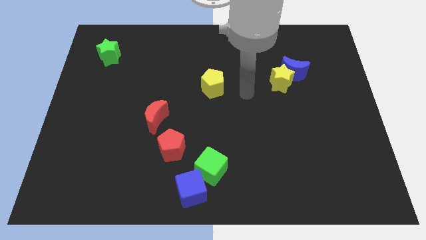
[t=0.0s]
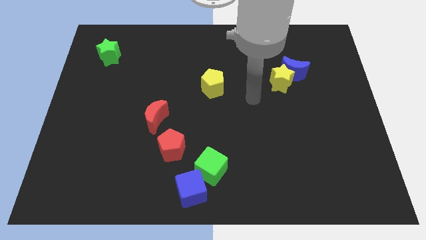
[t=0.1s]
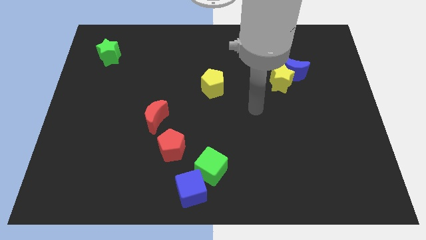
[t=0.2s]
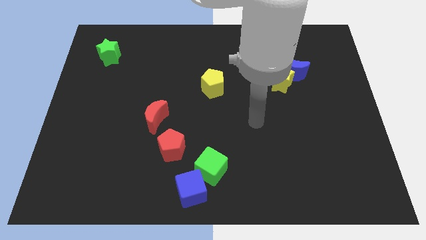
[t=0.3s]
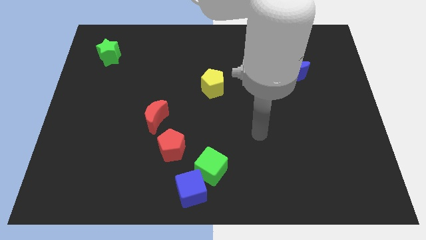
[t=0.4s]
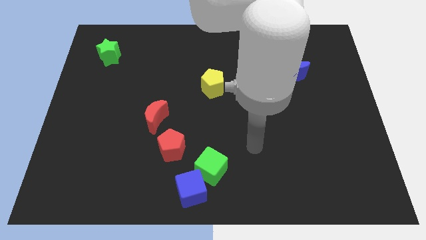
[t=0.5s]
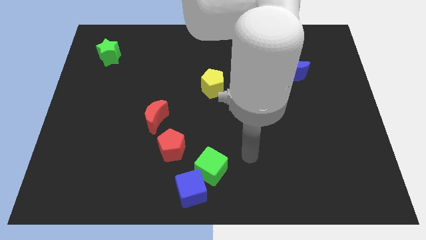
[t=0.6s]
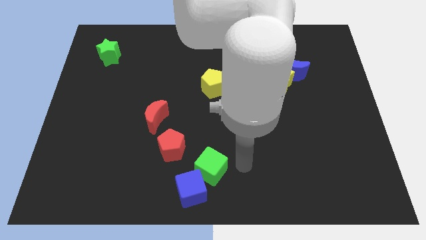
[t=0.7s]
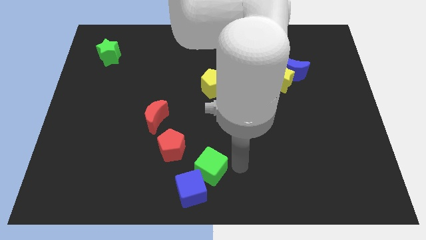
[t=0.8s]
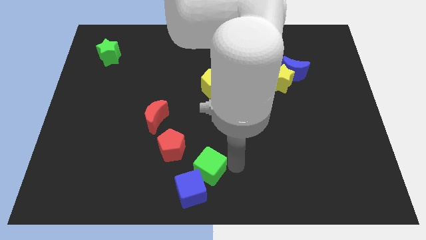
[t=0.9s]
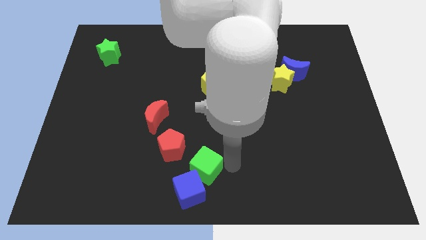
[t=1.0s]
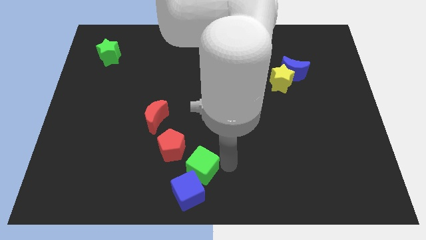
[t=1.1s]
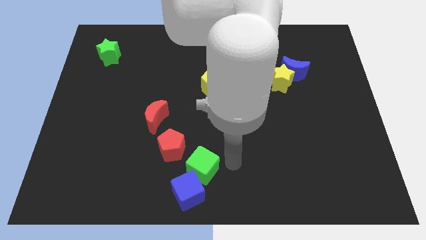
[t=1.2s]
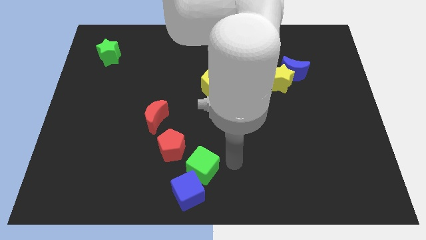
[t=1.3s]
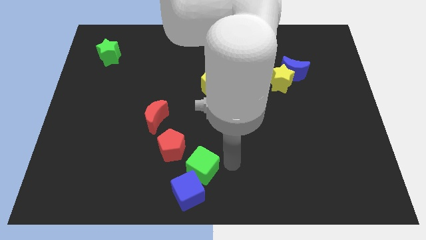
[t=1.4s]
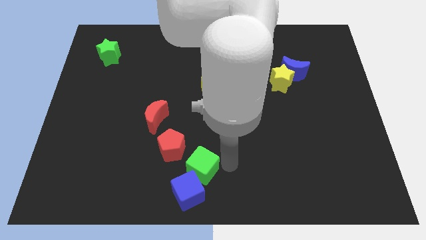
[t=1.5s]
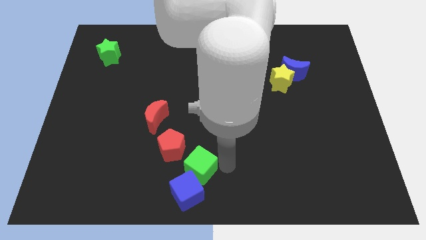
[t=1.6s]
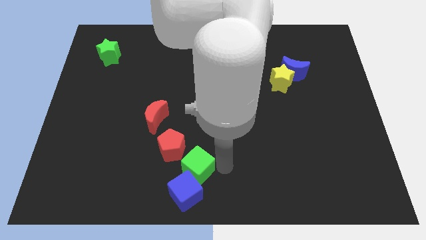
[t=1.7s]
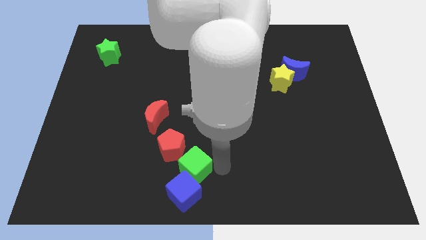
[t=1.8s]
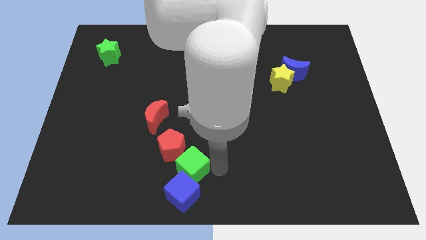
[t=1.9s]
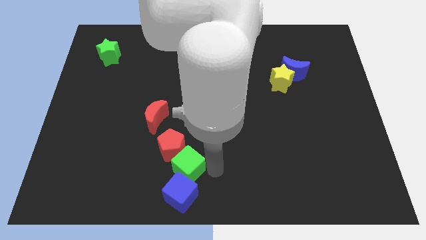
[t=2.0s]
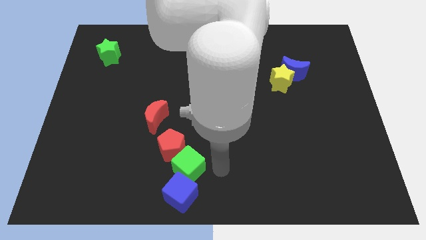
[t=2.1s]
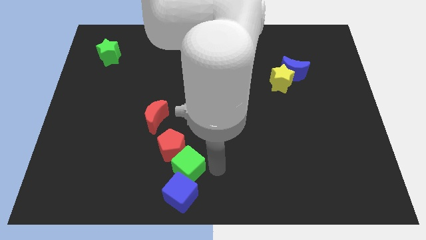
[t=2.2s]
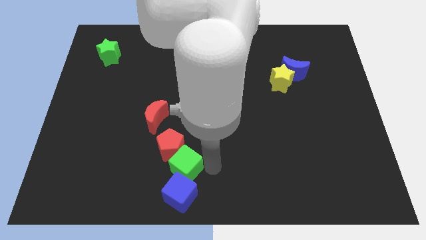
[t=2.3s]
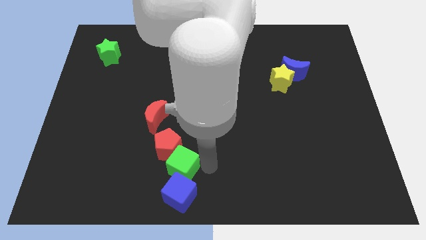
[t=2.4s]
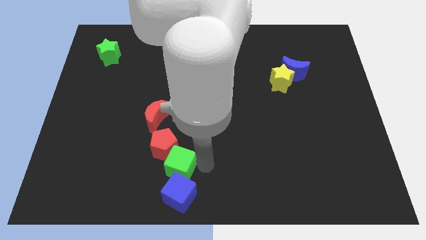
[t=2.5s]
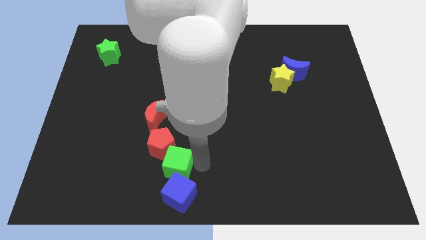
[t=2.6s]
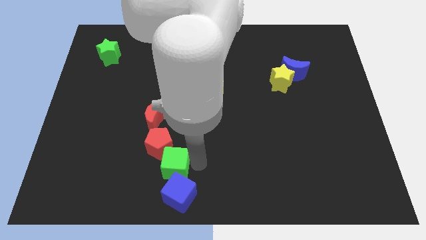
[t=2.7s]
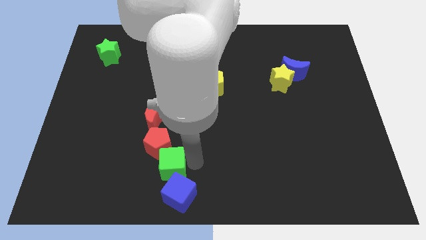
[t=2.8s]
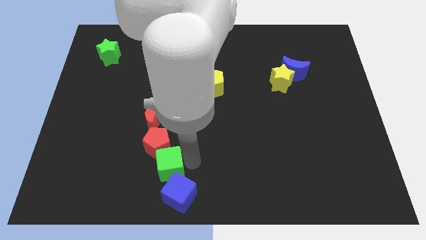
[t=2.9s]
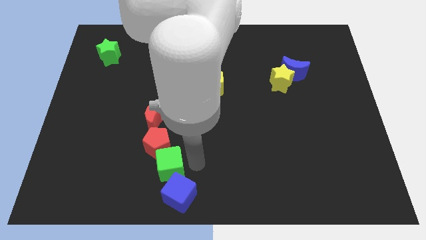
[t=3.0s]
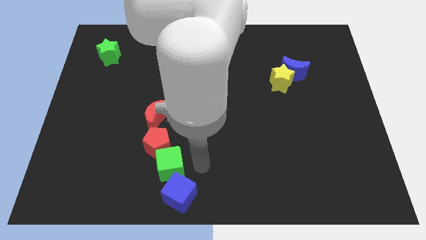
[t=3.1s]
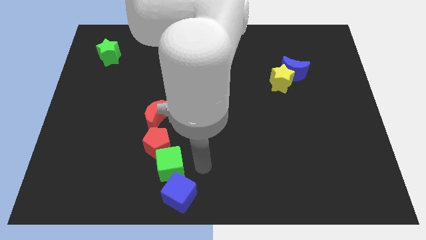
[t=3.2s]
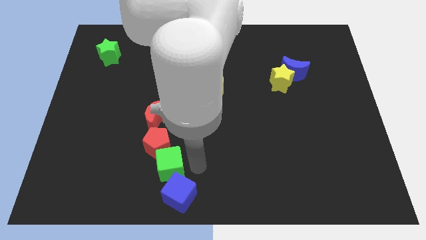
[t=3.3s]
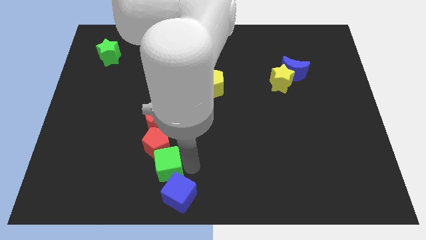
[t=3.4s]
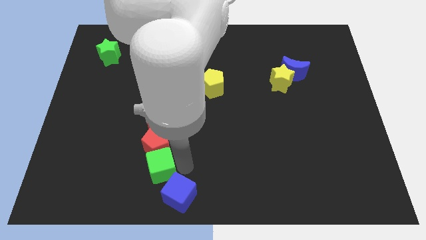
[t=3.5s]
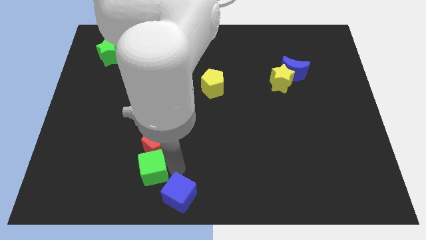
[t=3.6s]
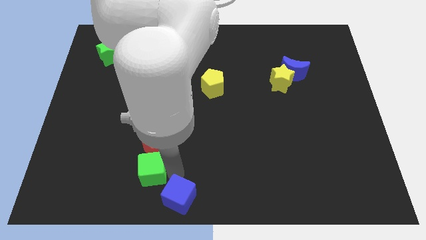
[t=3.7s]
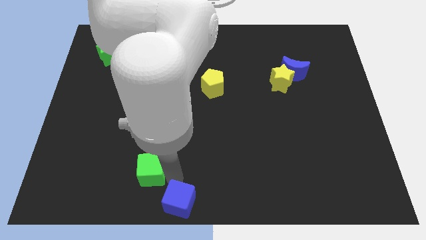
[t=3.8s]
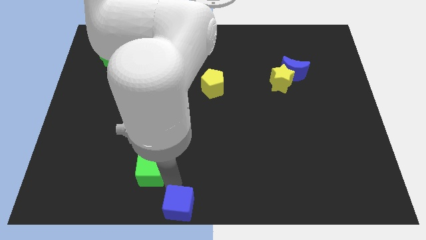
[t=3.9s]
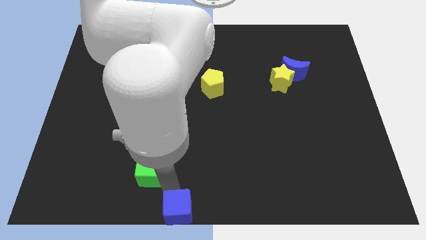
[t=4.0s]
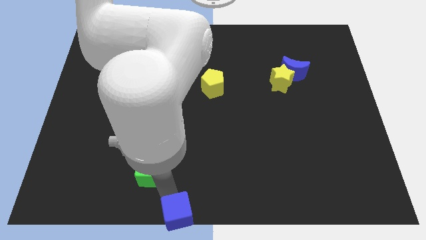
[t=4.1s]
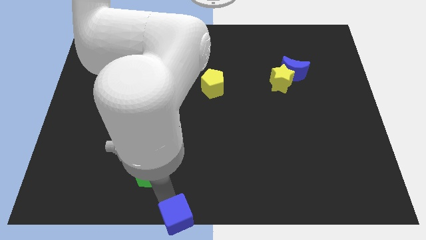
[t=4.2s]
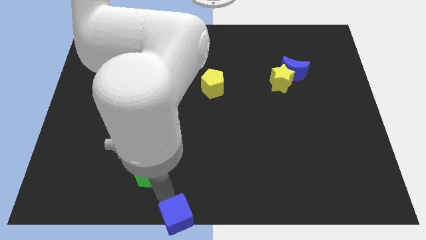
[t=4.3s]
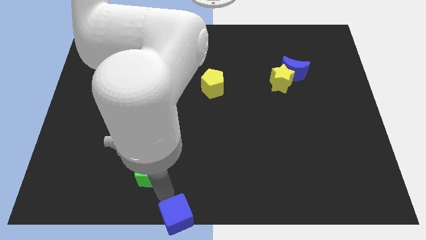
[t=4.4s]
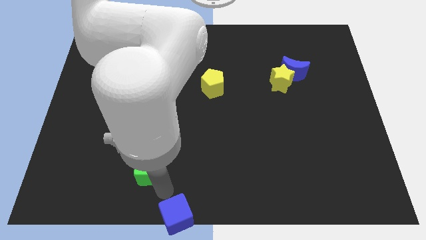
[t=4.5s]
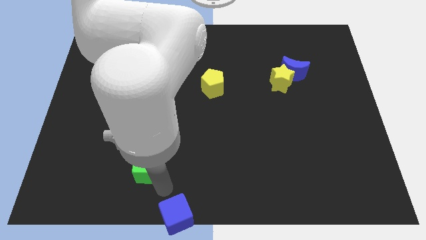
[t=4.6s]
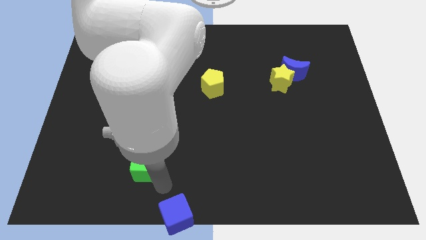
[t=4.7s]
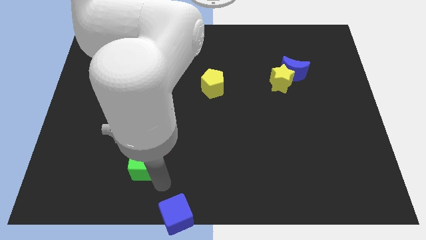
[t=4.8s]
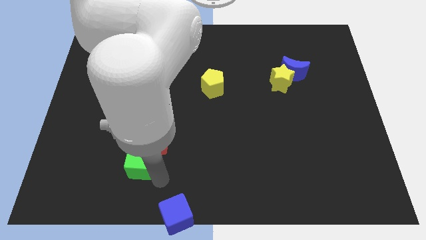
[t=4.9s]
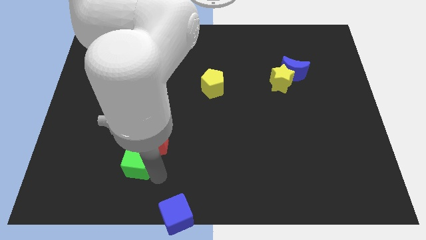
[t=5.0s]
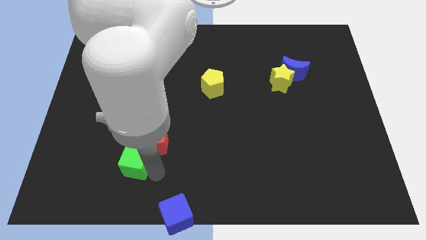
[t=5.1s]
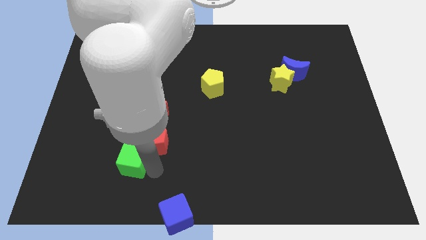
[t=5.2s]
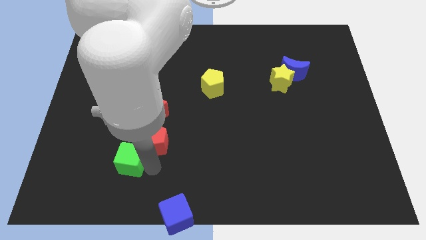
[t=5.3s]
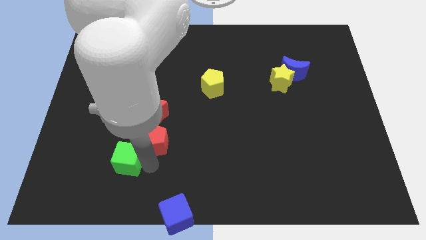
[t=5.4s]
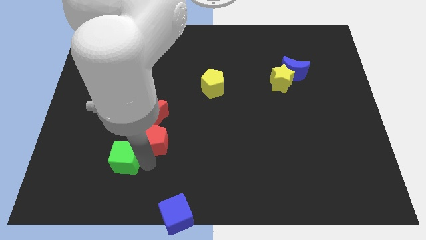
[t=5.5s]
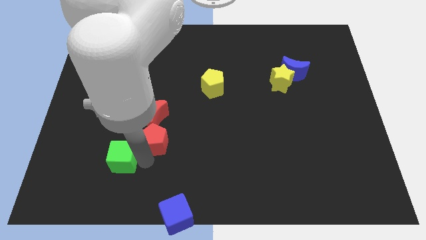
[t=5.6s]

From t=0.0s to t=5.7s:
move the green cube diagonally down and to the left of the red moon

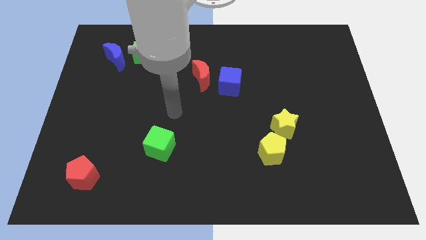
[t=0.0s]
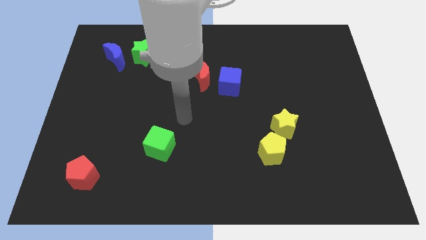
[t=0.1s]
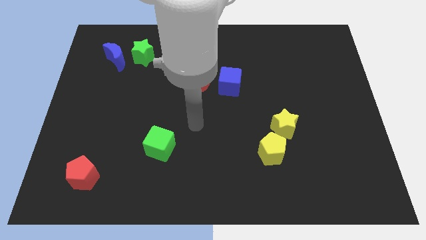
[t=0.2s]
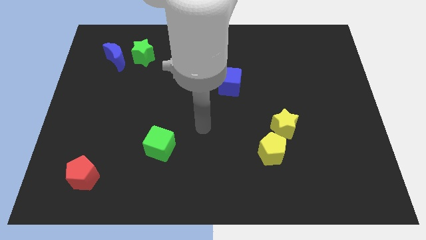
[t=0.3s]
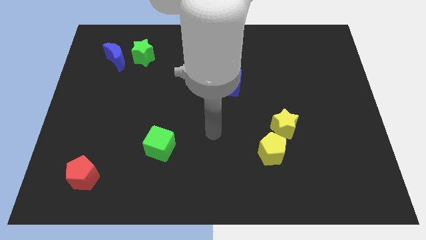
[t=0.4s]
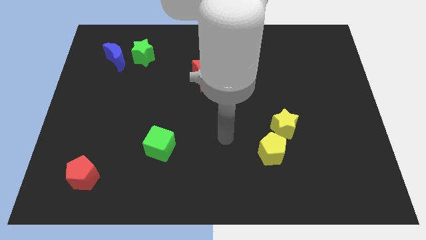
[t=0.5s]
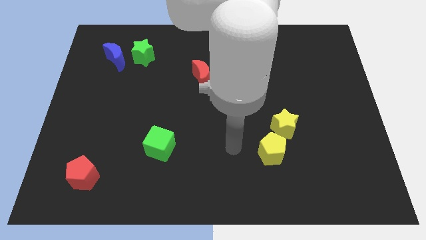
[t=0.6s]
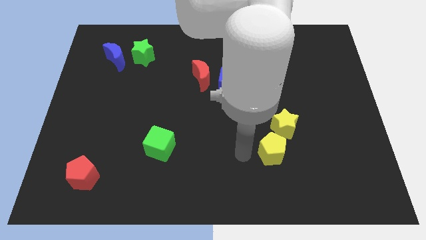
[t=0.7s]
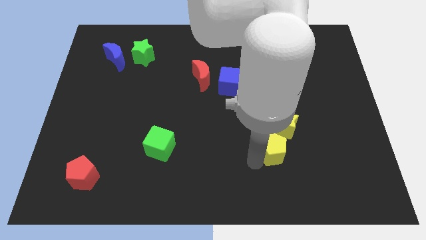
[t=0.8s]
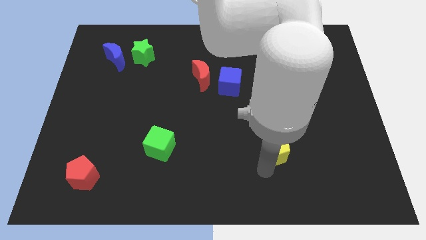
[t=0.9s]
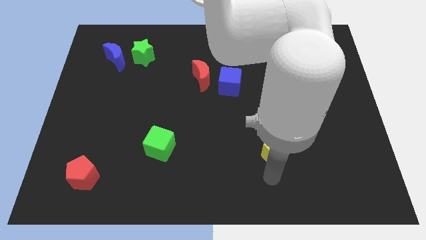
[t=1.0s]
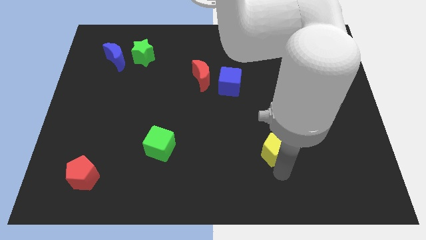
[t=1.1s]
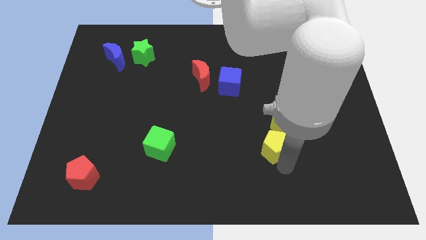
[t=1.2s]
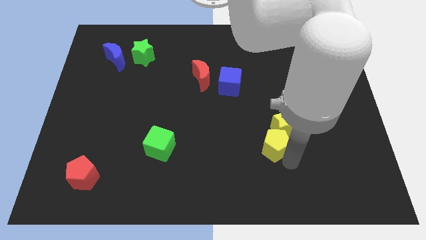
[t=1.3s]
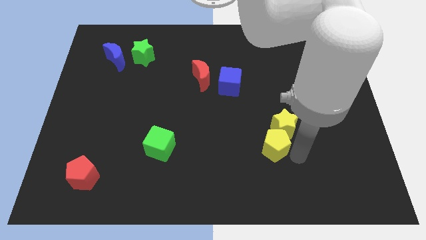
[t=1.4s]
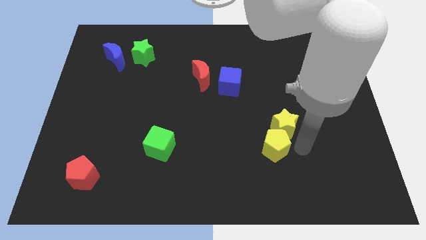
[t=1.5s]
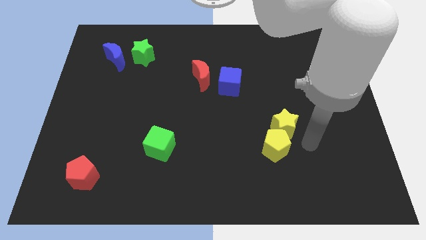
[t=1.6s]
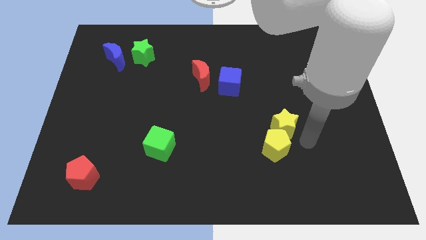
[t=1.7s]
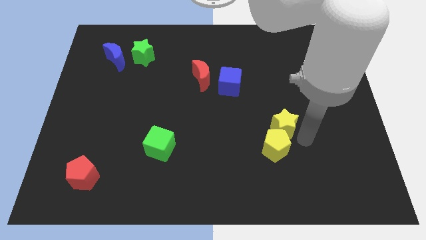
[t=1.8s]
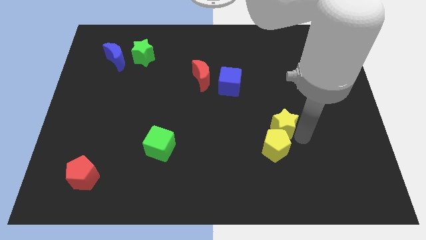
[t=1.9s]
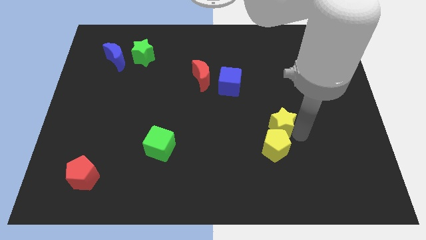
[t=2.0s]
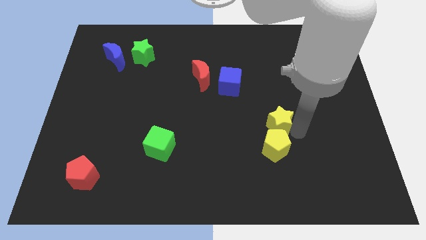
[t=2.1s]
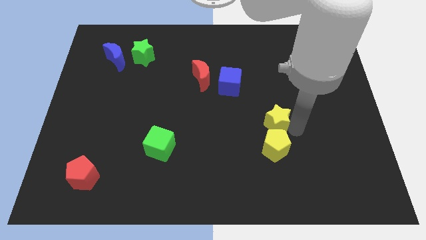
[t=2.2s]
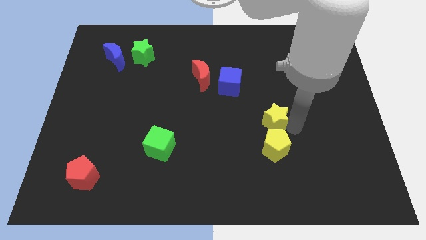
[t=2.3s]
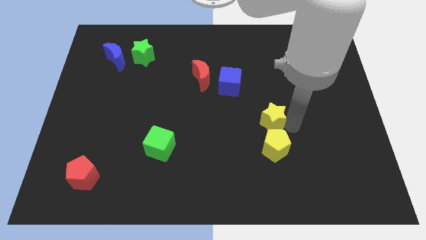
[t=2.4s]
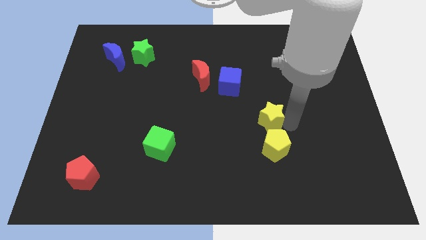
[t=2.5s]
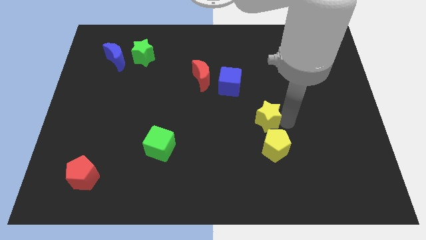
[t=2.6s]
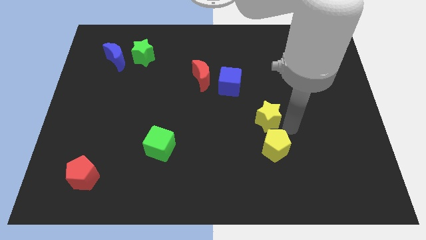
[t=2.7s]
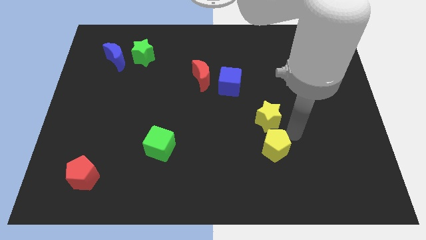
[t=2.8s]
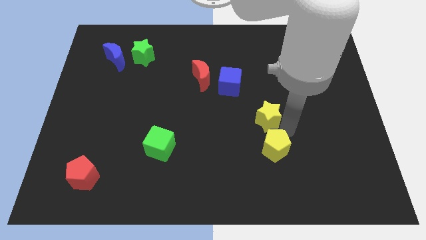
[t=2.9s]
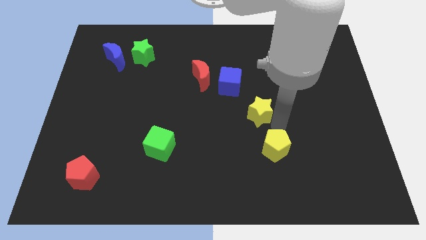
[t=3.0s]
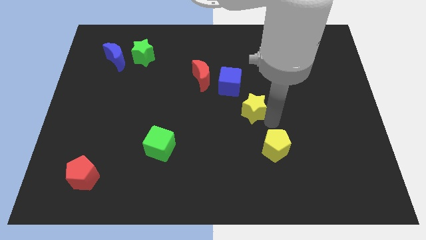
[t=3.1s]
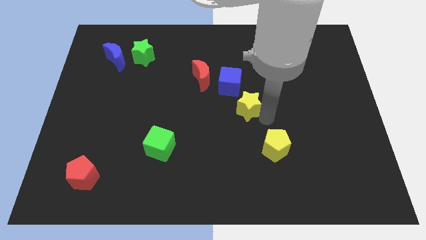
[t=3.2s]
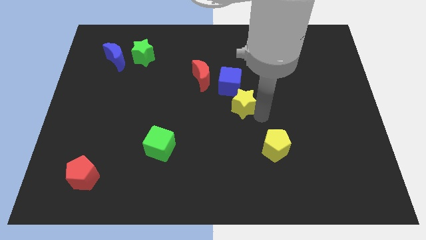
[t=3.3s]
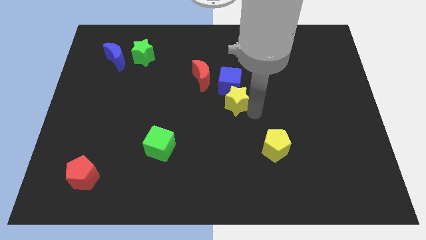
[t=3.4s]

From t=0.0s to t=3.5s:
push the yellow star to the bottom right side of the red moon
